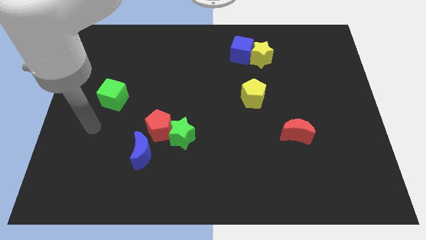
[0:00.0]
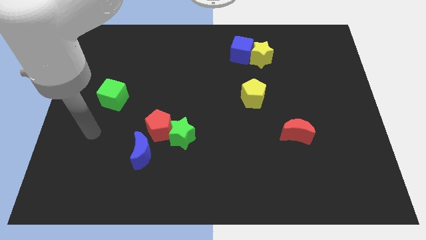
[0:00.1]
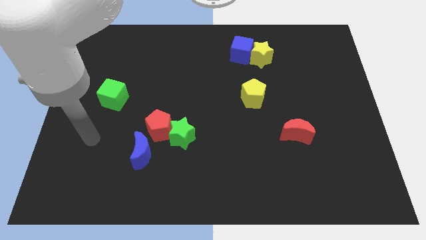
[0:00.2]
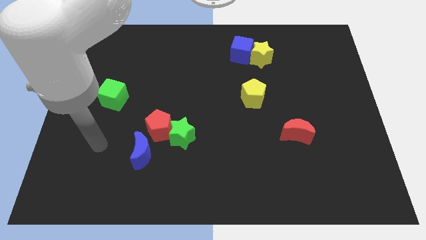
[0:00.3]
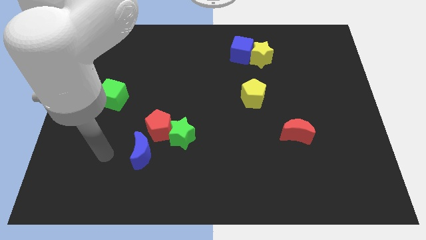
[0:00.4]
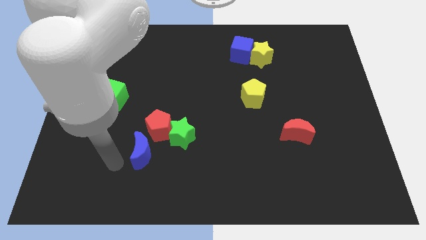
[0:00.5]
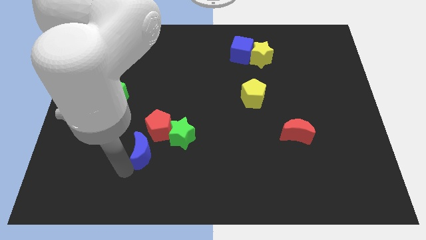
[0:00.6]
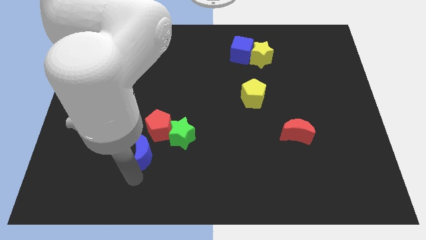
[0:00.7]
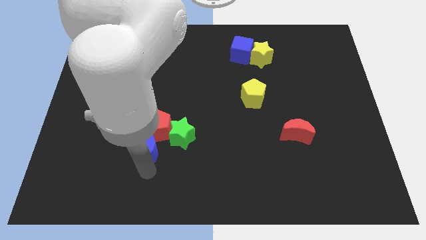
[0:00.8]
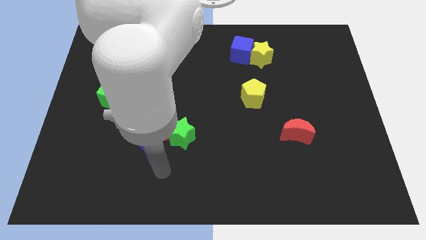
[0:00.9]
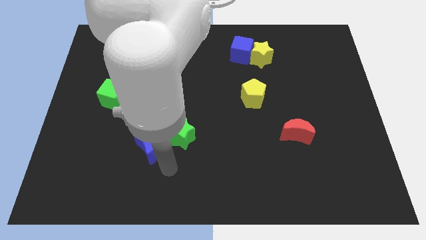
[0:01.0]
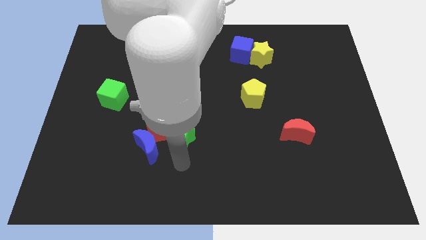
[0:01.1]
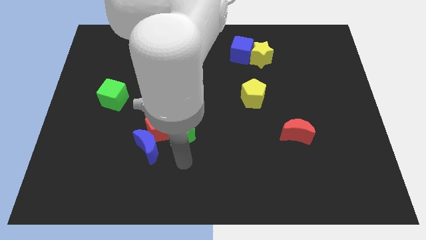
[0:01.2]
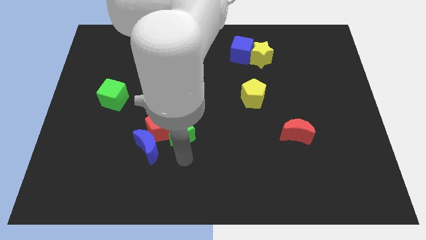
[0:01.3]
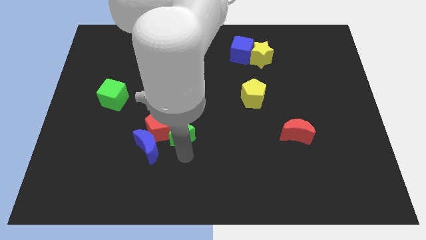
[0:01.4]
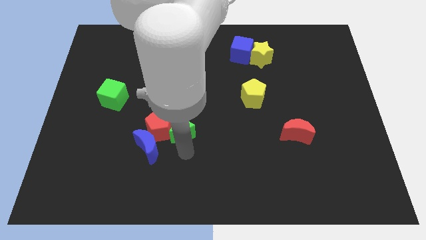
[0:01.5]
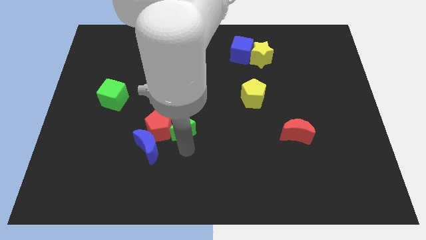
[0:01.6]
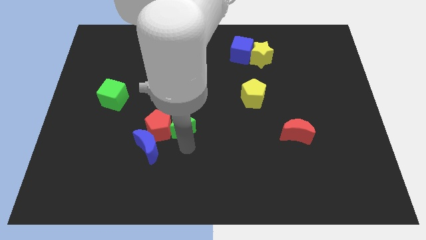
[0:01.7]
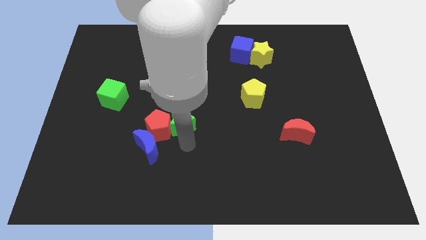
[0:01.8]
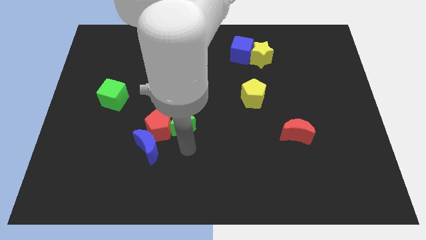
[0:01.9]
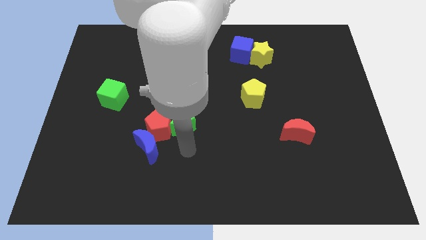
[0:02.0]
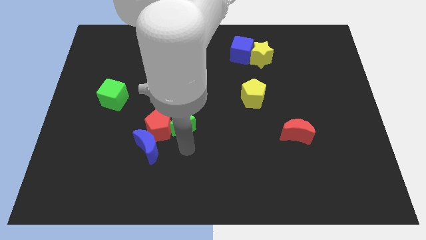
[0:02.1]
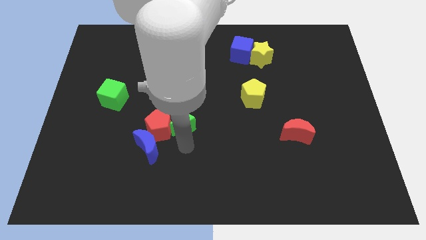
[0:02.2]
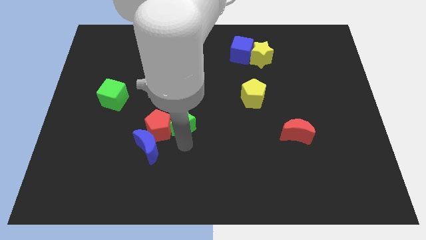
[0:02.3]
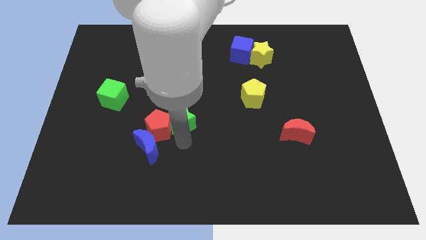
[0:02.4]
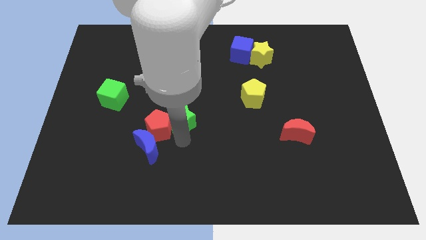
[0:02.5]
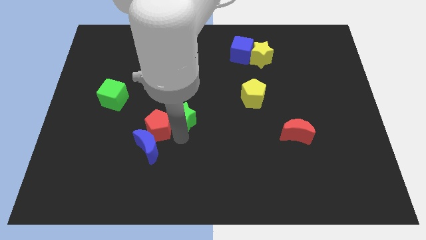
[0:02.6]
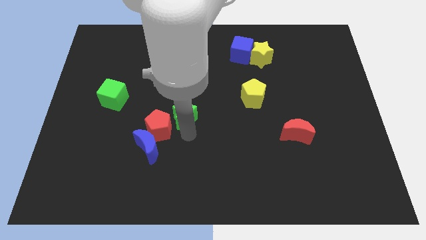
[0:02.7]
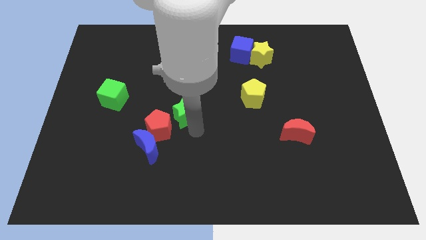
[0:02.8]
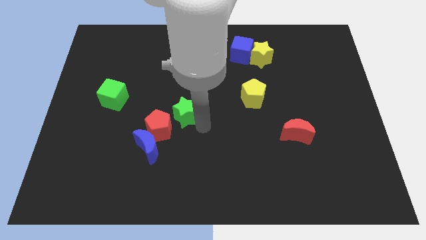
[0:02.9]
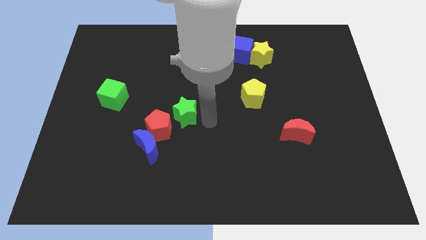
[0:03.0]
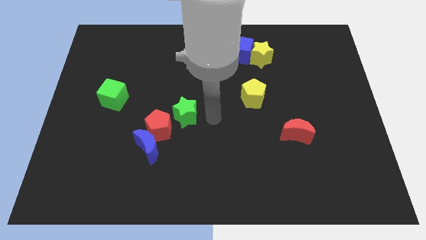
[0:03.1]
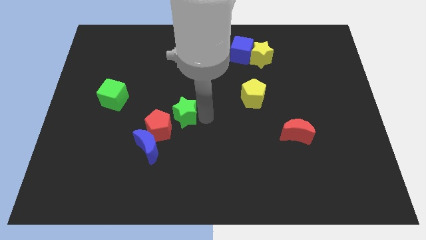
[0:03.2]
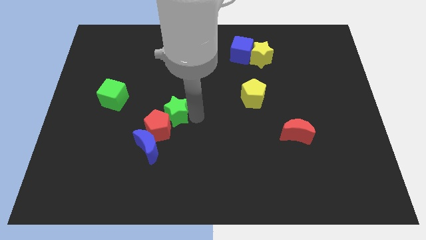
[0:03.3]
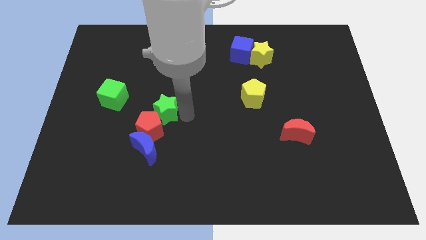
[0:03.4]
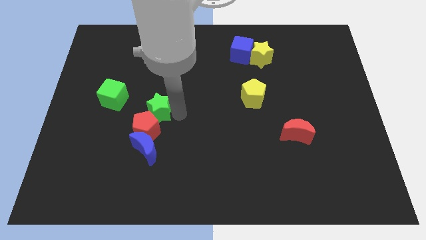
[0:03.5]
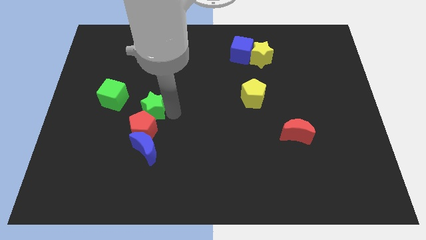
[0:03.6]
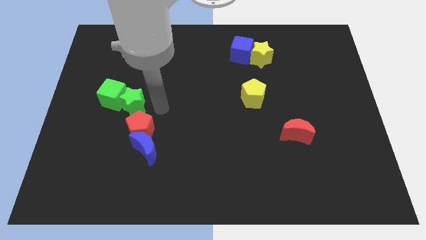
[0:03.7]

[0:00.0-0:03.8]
push the green star to the left somewhat

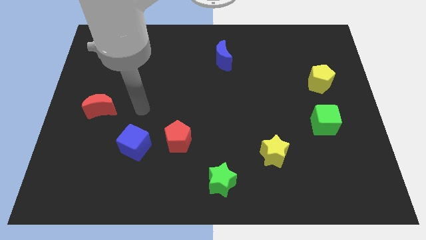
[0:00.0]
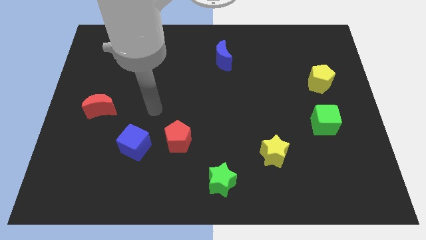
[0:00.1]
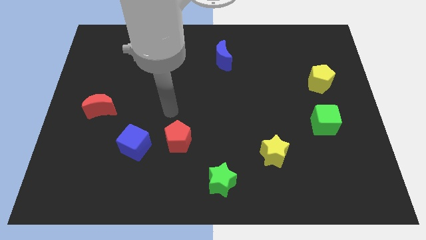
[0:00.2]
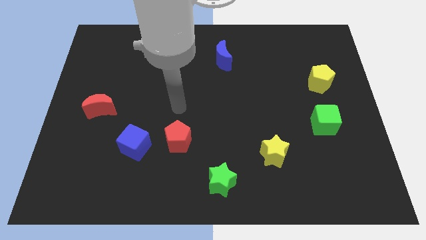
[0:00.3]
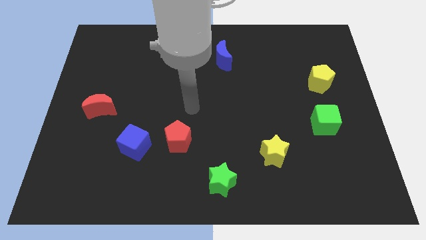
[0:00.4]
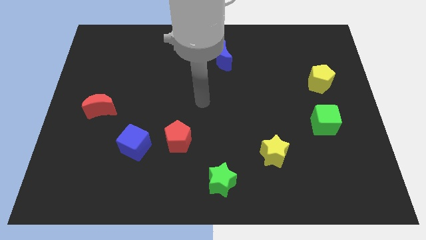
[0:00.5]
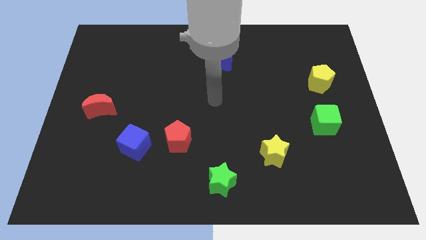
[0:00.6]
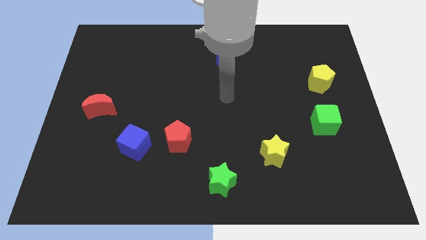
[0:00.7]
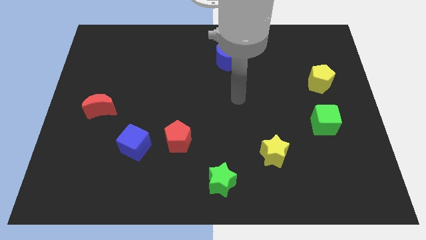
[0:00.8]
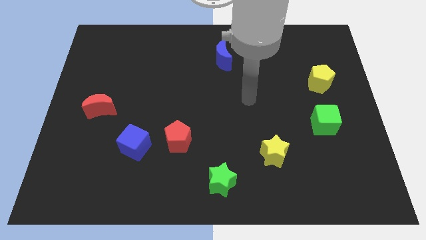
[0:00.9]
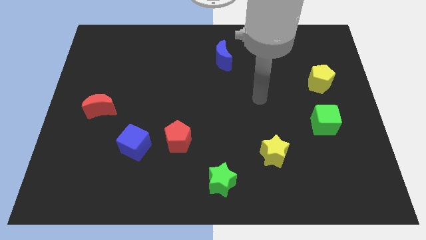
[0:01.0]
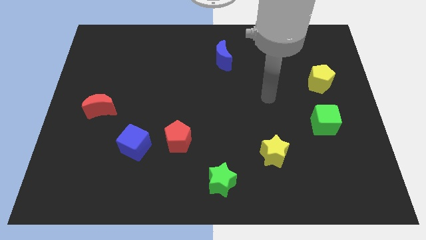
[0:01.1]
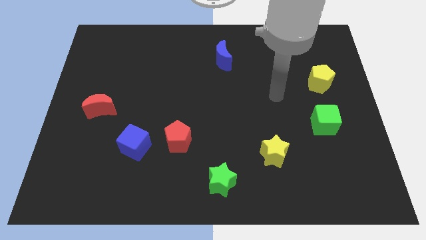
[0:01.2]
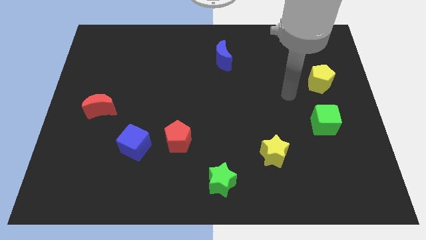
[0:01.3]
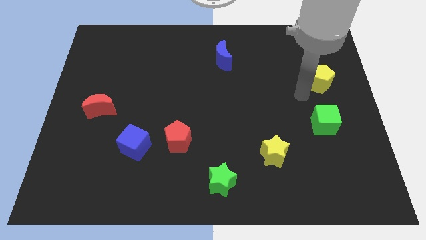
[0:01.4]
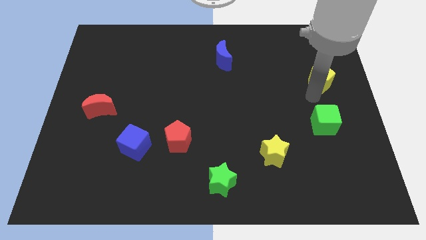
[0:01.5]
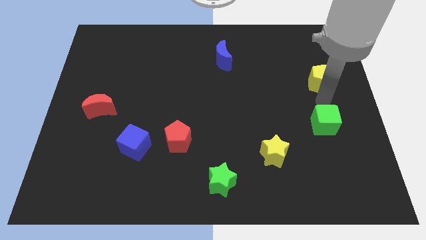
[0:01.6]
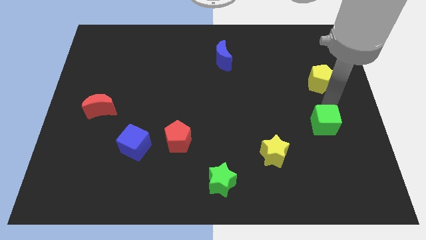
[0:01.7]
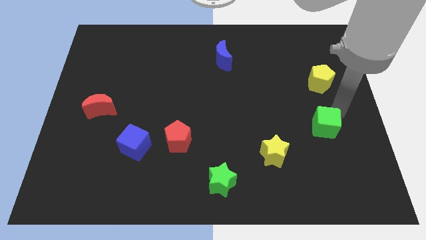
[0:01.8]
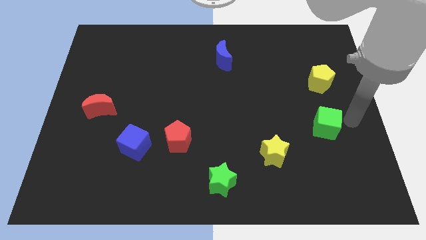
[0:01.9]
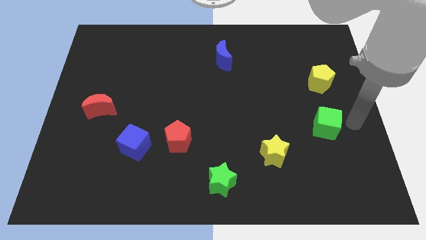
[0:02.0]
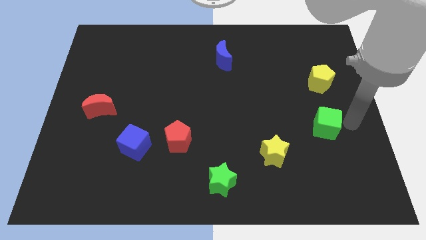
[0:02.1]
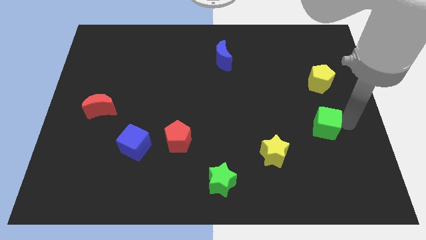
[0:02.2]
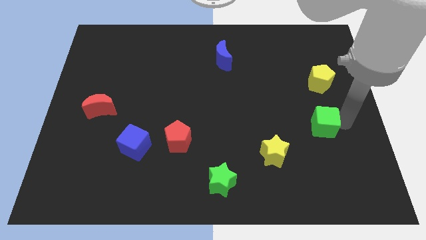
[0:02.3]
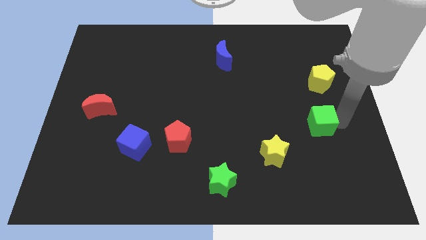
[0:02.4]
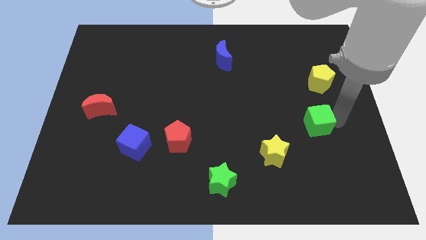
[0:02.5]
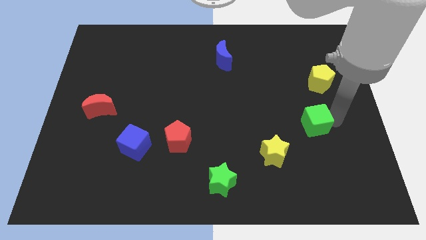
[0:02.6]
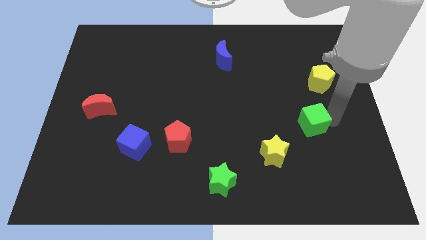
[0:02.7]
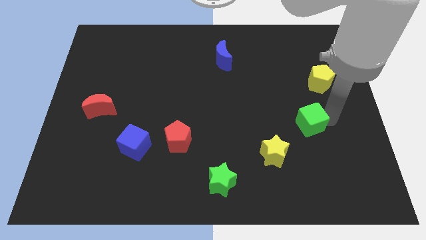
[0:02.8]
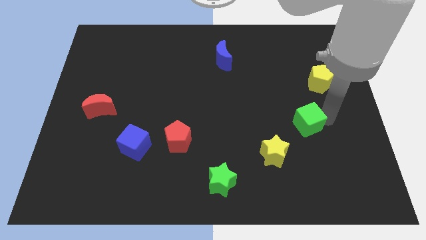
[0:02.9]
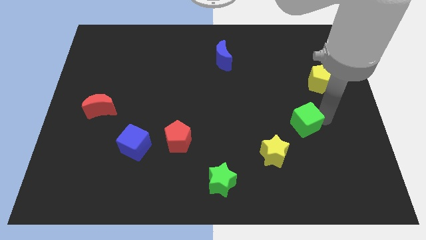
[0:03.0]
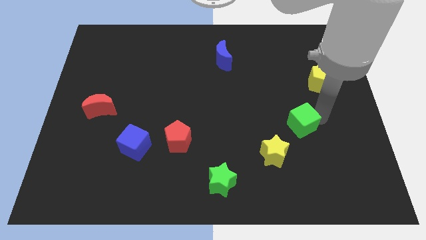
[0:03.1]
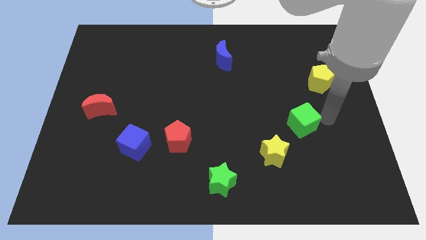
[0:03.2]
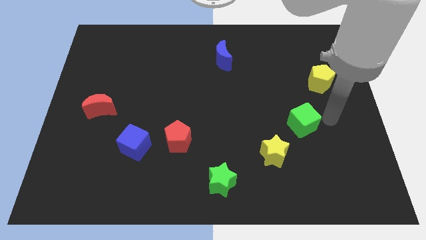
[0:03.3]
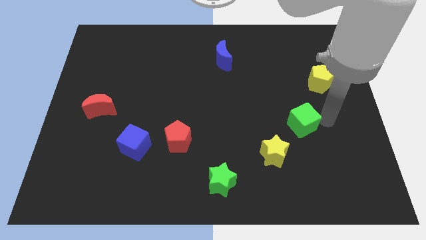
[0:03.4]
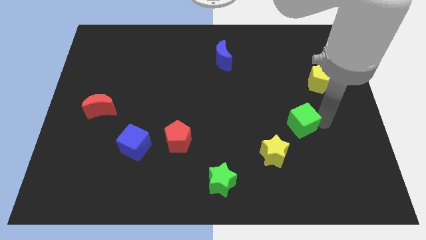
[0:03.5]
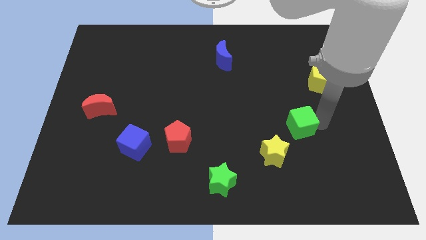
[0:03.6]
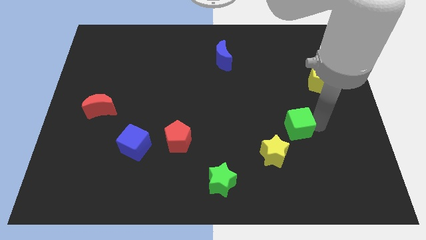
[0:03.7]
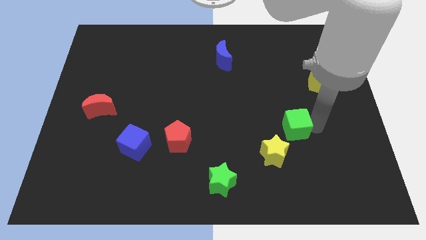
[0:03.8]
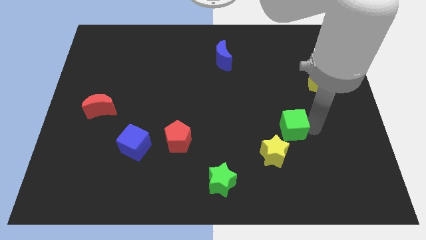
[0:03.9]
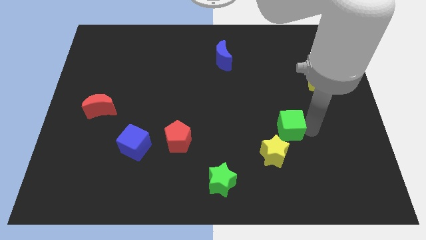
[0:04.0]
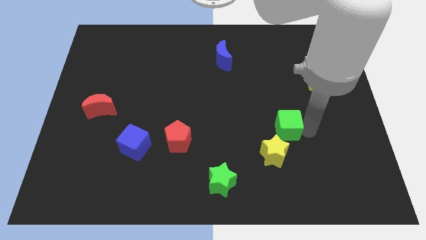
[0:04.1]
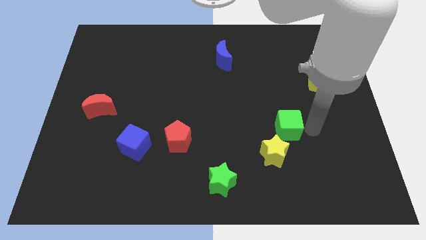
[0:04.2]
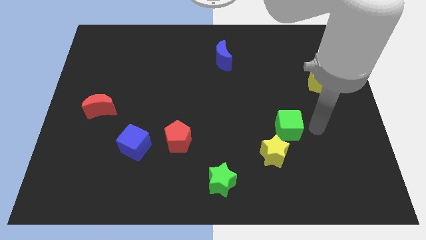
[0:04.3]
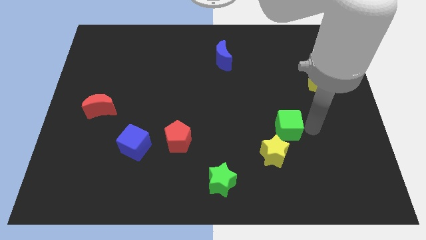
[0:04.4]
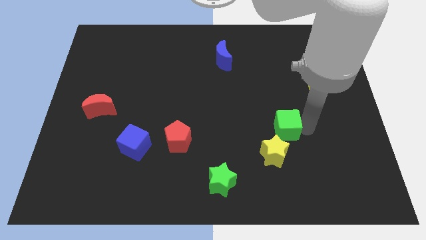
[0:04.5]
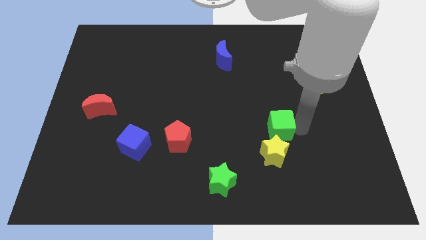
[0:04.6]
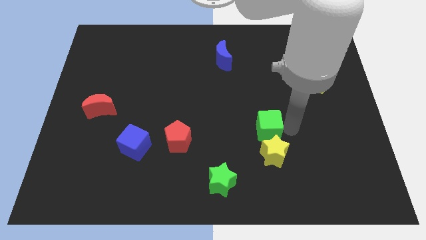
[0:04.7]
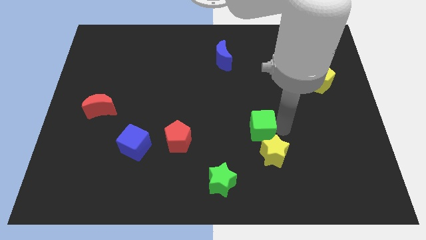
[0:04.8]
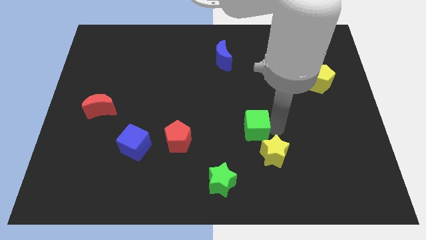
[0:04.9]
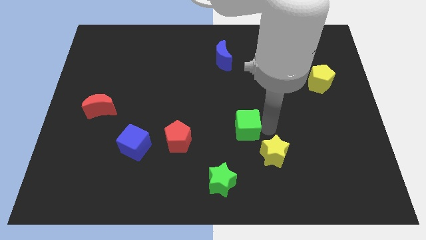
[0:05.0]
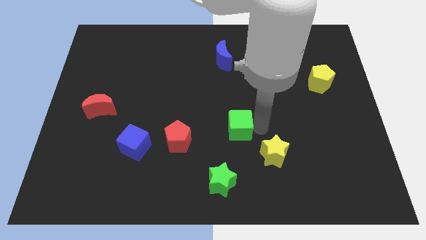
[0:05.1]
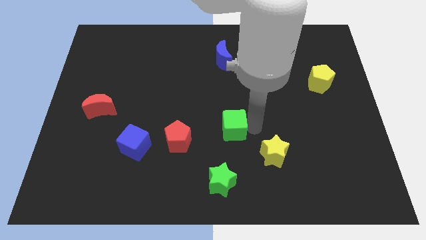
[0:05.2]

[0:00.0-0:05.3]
push the green cube to the left
